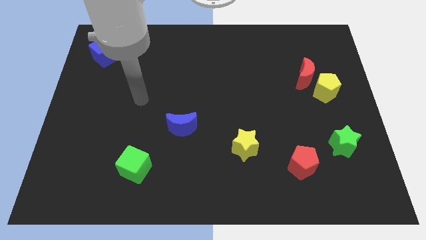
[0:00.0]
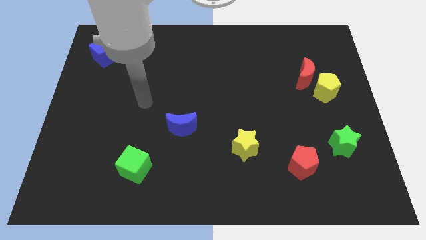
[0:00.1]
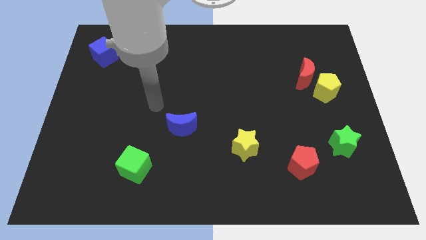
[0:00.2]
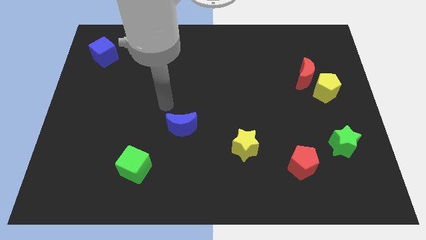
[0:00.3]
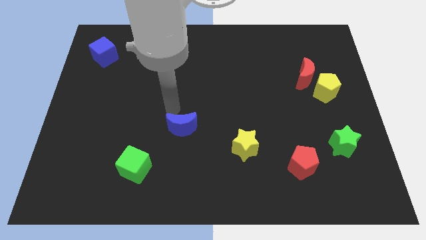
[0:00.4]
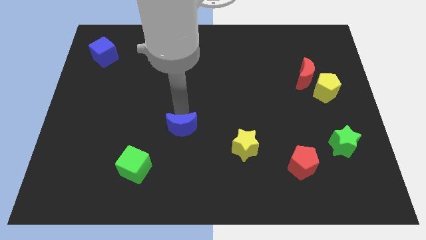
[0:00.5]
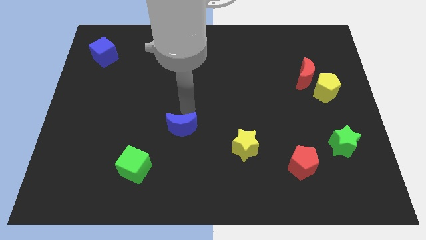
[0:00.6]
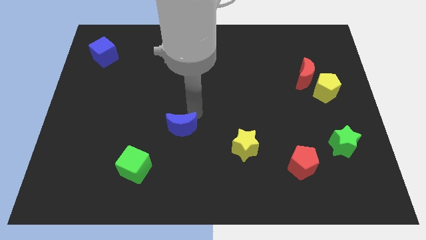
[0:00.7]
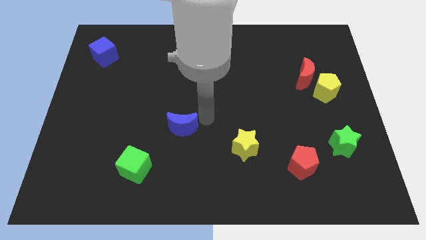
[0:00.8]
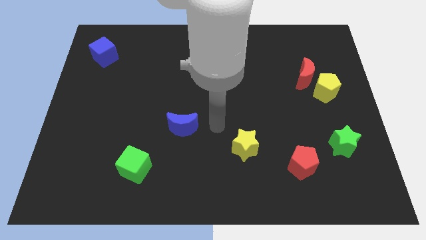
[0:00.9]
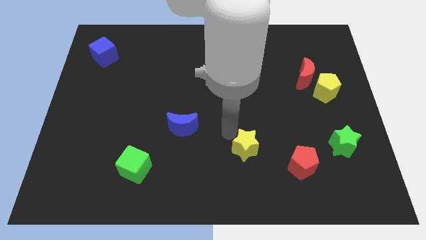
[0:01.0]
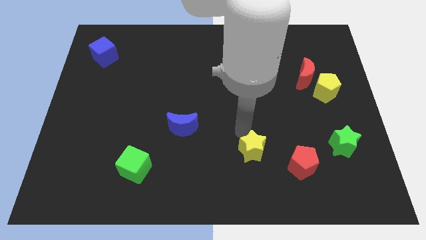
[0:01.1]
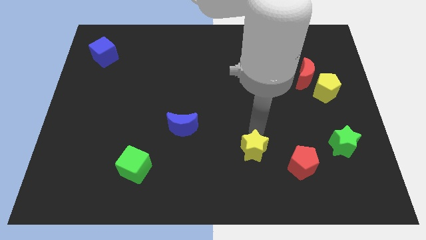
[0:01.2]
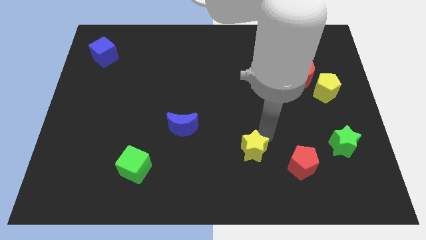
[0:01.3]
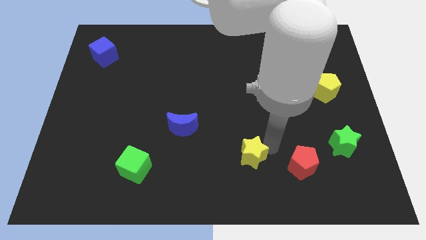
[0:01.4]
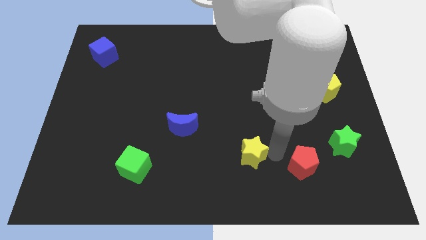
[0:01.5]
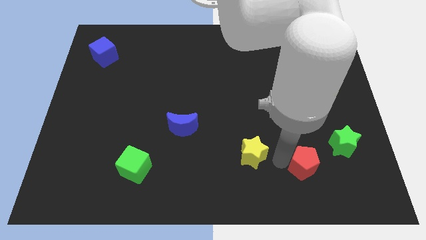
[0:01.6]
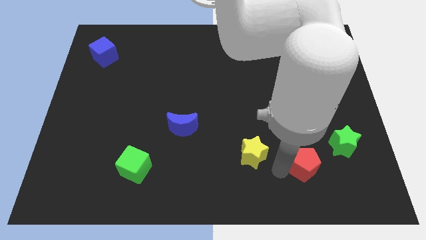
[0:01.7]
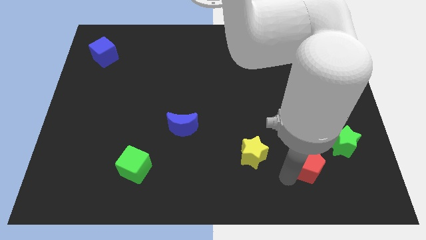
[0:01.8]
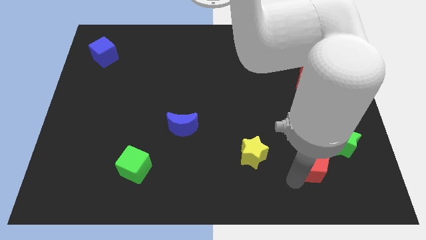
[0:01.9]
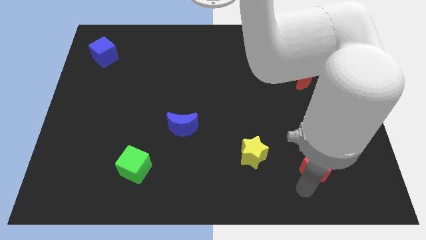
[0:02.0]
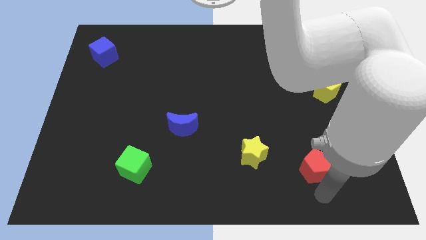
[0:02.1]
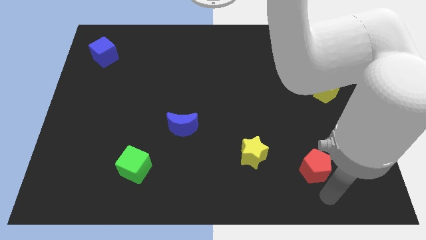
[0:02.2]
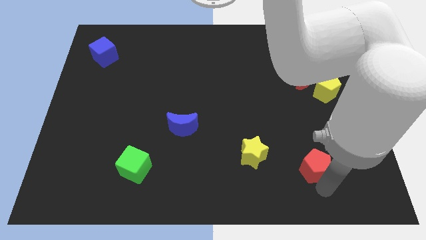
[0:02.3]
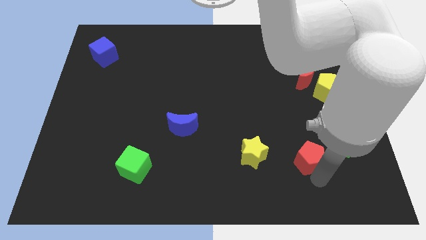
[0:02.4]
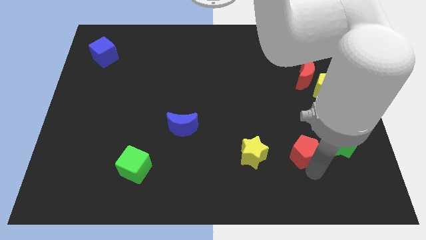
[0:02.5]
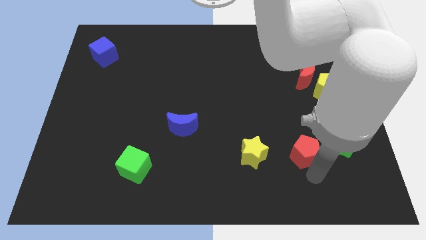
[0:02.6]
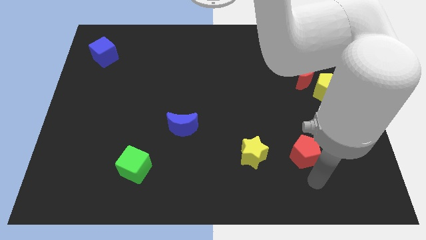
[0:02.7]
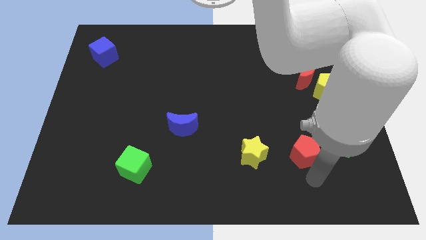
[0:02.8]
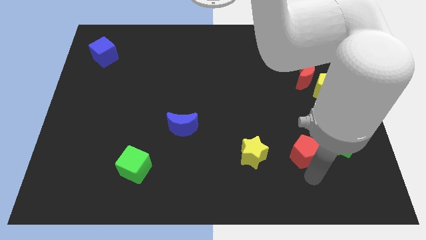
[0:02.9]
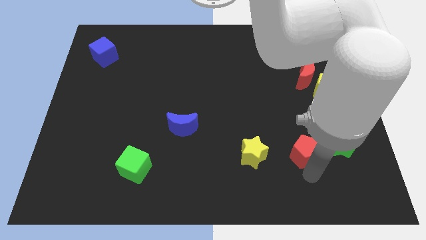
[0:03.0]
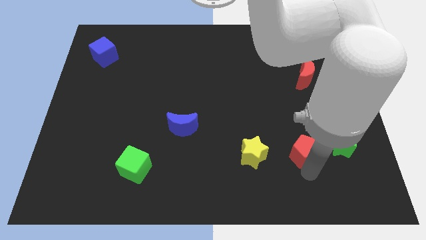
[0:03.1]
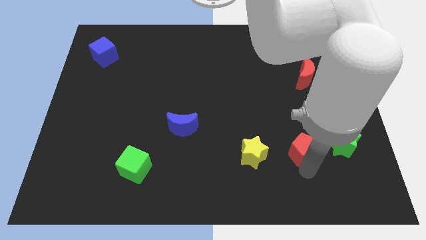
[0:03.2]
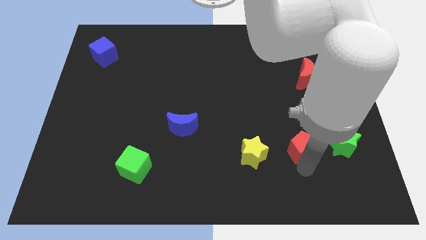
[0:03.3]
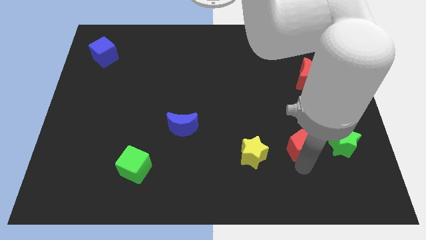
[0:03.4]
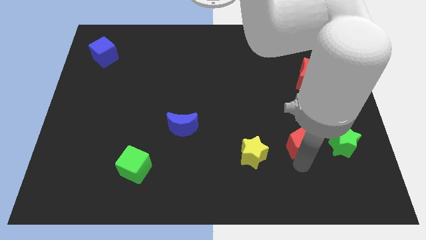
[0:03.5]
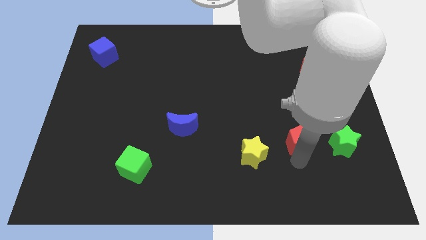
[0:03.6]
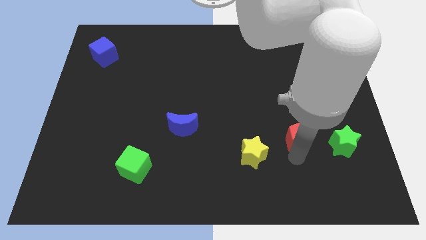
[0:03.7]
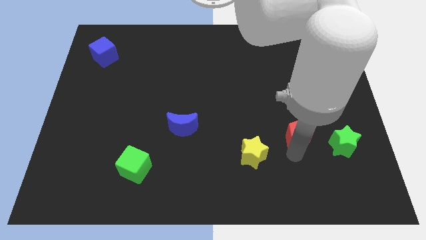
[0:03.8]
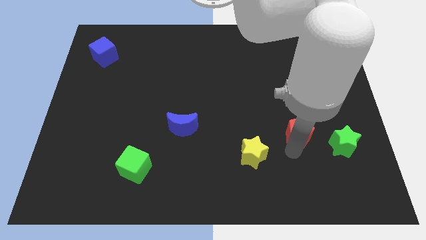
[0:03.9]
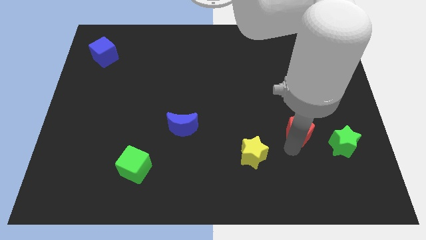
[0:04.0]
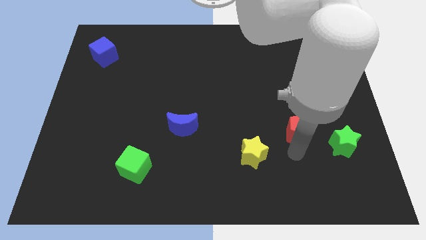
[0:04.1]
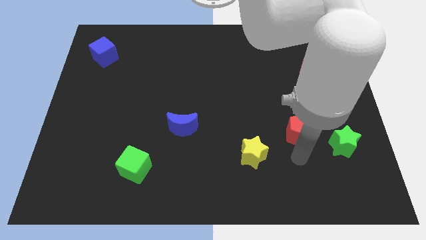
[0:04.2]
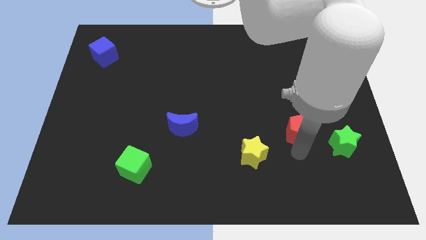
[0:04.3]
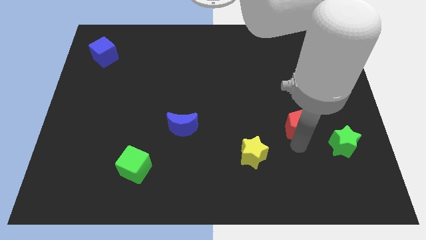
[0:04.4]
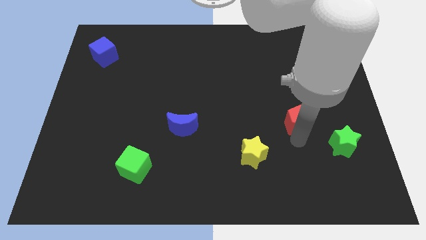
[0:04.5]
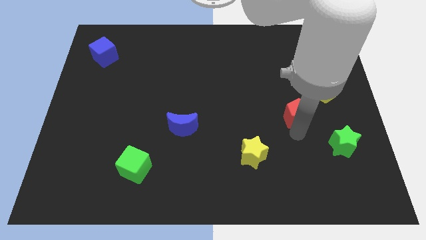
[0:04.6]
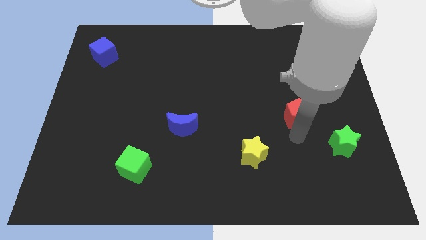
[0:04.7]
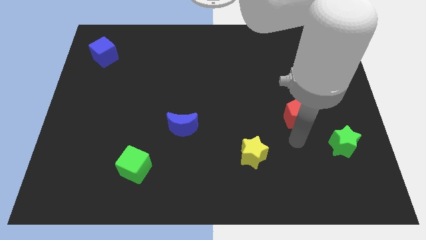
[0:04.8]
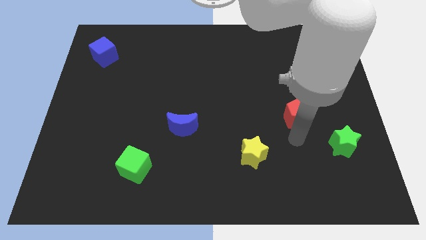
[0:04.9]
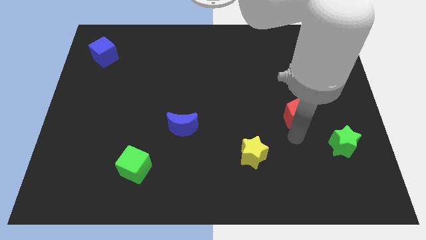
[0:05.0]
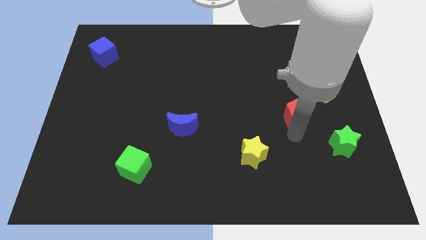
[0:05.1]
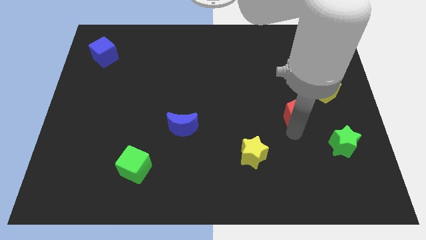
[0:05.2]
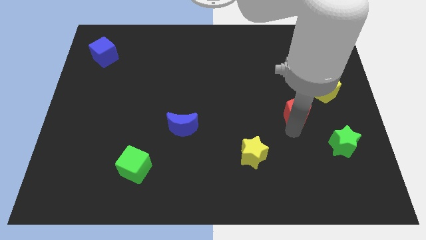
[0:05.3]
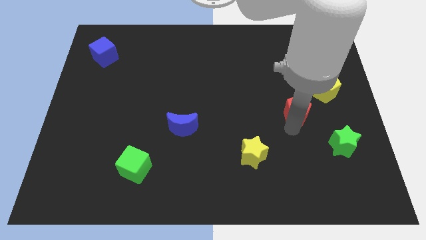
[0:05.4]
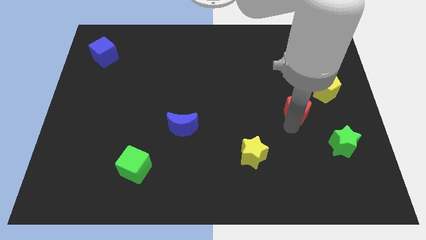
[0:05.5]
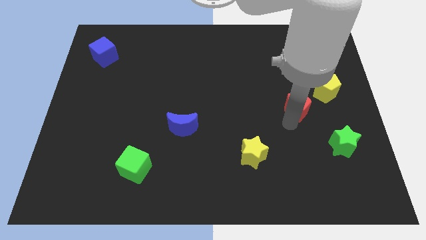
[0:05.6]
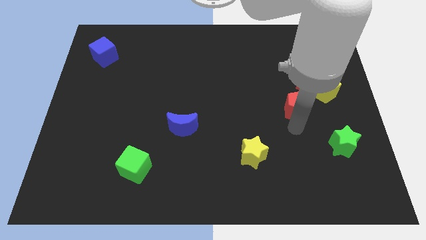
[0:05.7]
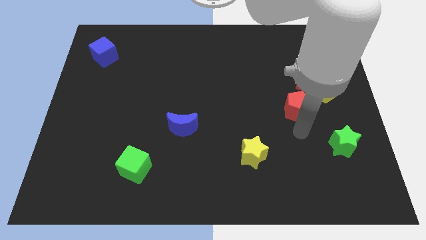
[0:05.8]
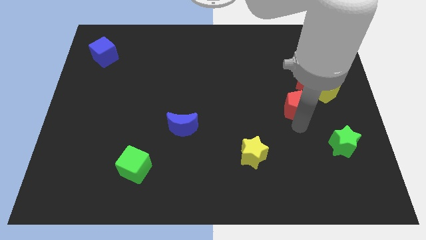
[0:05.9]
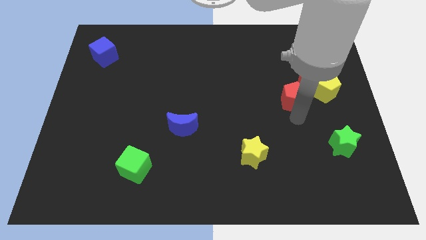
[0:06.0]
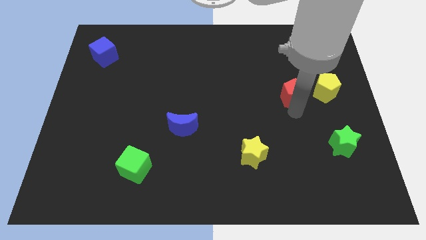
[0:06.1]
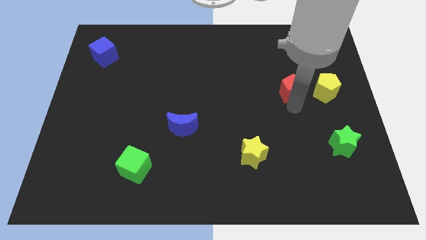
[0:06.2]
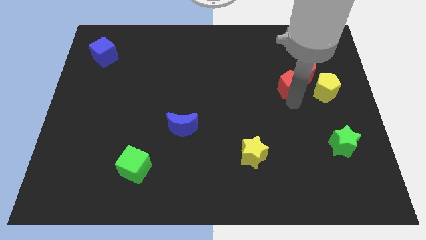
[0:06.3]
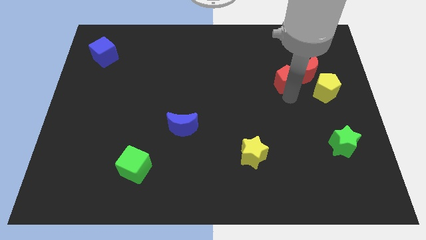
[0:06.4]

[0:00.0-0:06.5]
push the red pentagon diagonally up and to the left of the yellow pentagon

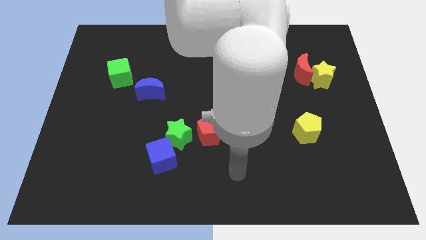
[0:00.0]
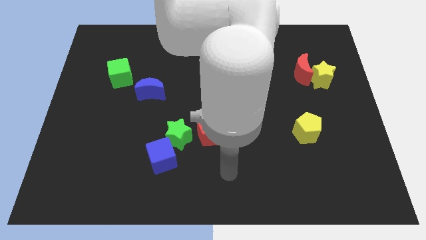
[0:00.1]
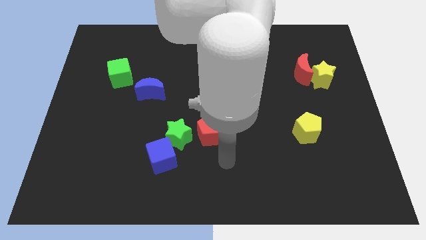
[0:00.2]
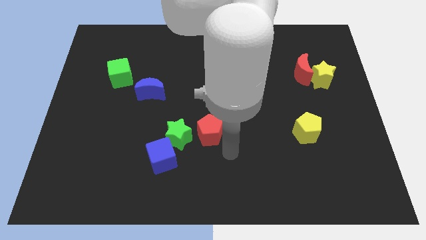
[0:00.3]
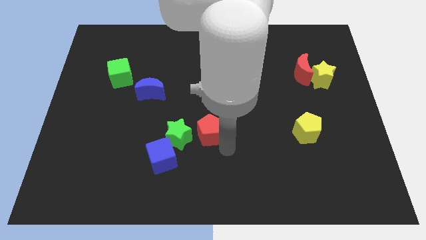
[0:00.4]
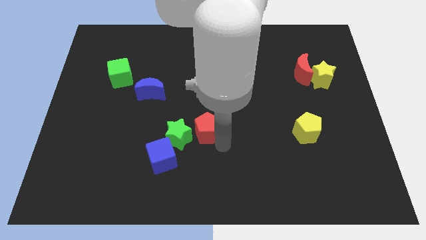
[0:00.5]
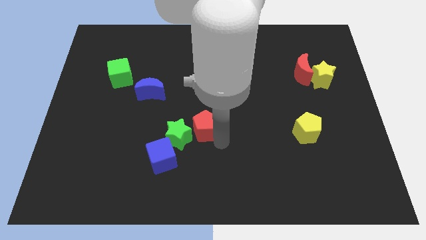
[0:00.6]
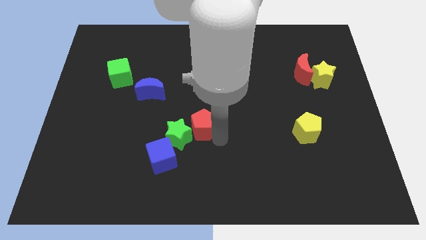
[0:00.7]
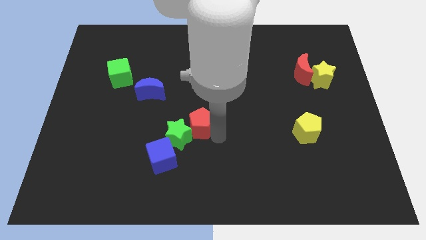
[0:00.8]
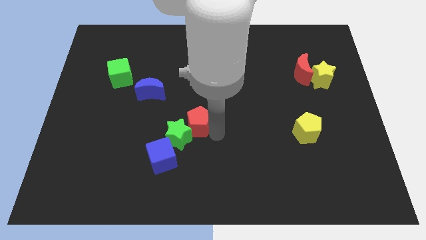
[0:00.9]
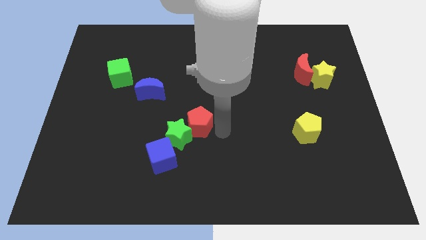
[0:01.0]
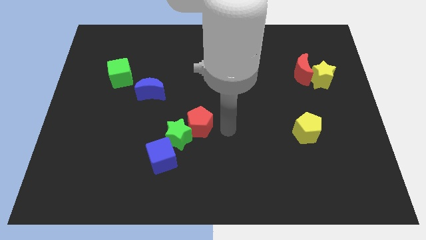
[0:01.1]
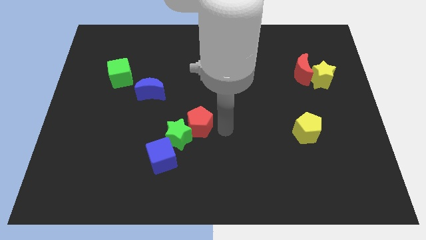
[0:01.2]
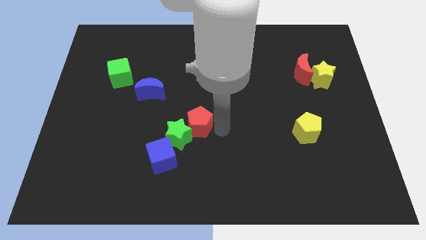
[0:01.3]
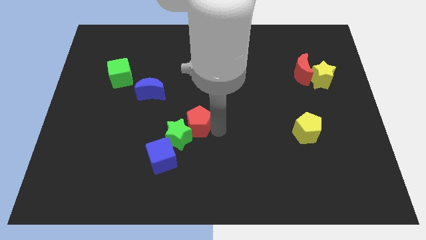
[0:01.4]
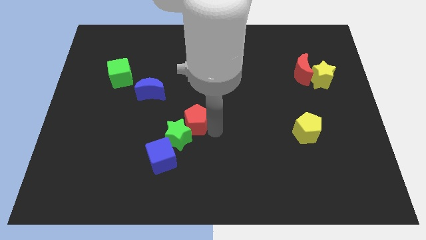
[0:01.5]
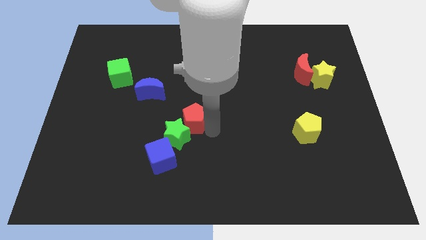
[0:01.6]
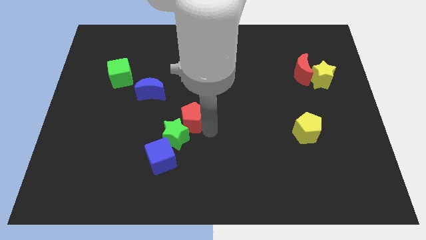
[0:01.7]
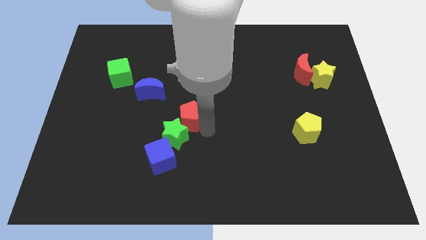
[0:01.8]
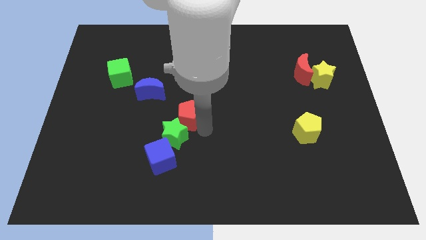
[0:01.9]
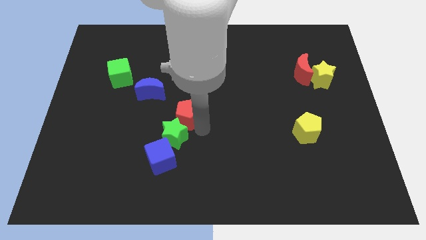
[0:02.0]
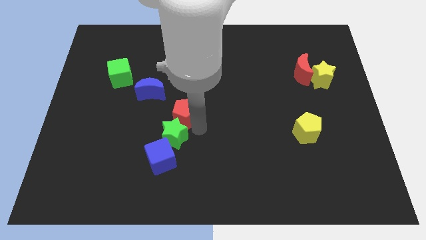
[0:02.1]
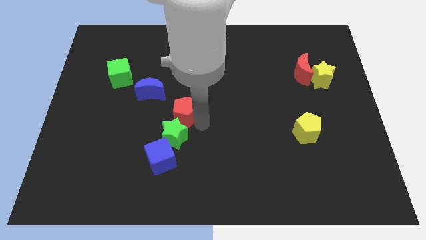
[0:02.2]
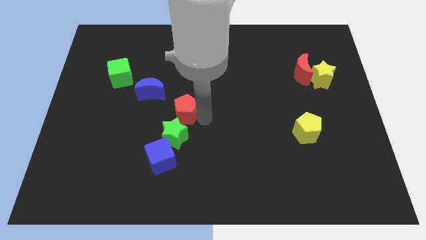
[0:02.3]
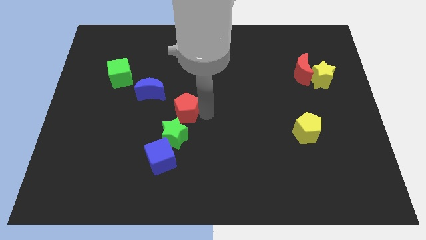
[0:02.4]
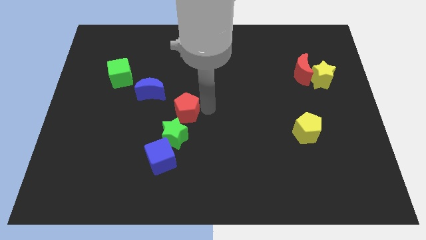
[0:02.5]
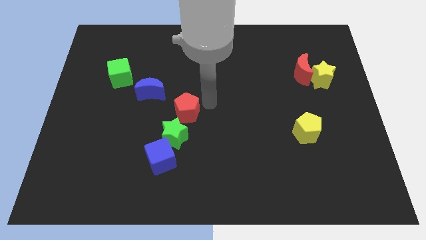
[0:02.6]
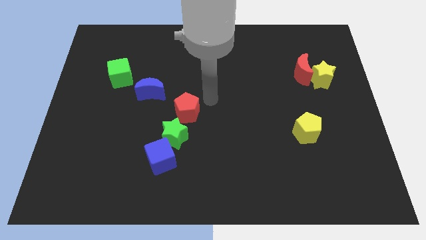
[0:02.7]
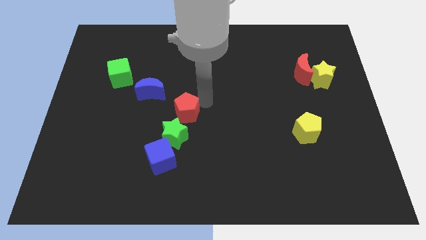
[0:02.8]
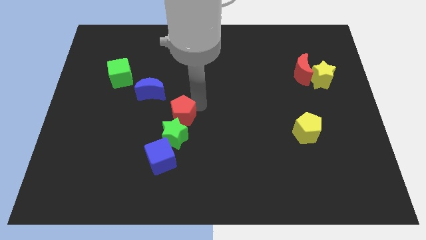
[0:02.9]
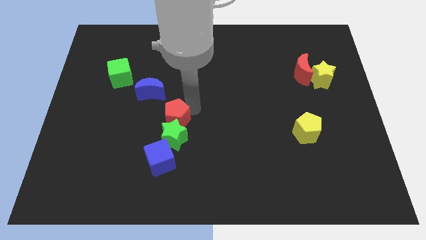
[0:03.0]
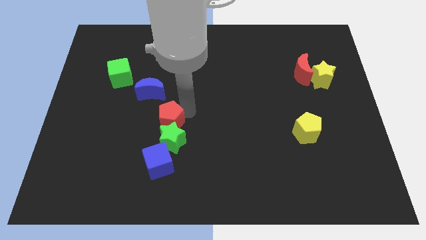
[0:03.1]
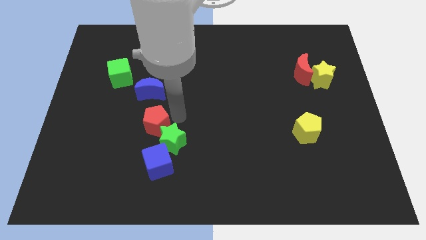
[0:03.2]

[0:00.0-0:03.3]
put the red pentagon to the left of the green star
